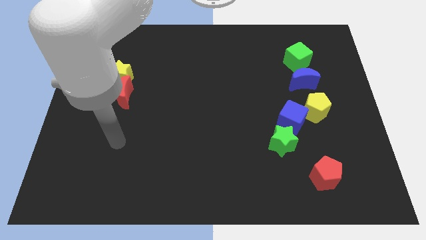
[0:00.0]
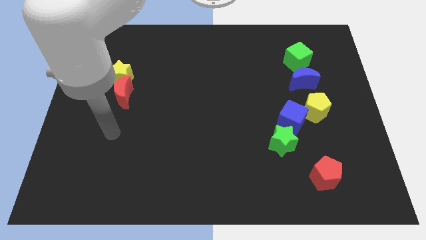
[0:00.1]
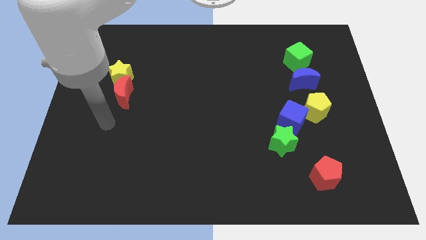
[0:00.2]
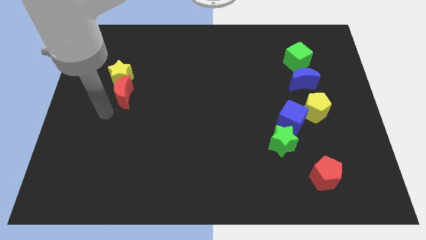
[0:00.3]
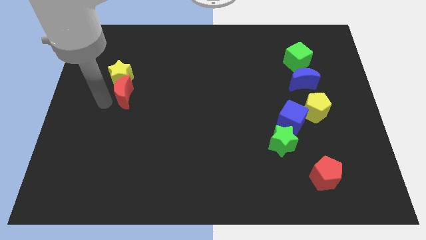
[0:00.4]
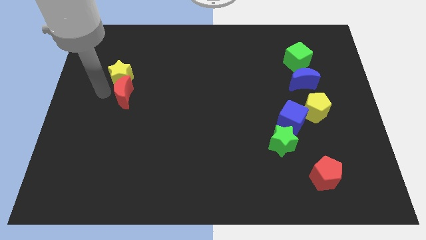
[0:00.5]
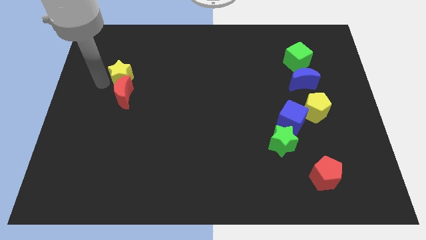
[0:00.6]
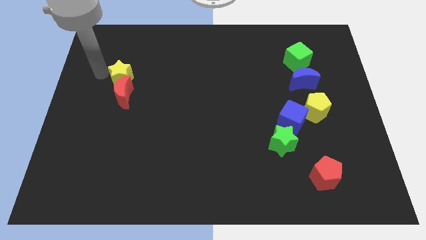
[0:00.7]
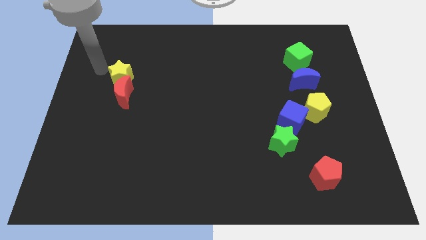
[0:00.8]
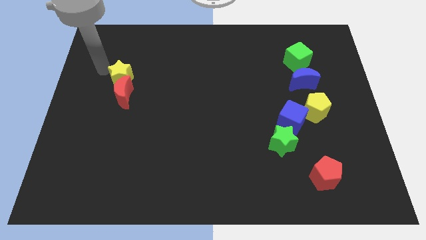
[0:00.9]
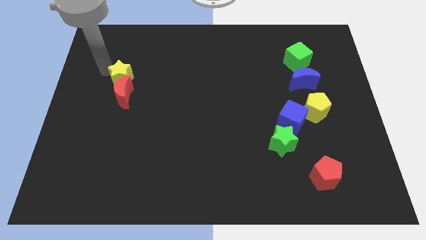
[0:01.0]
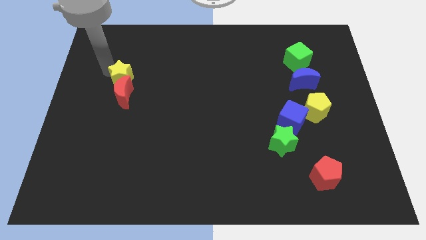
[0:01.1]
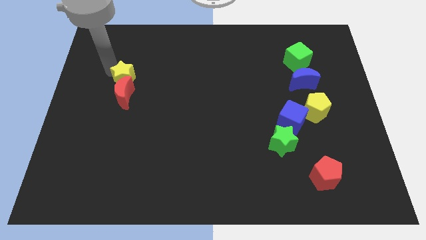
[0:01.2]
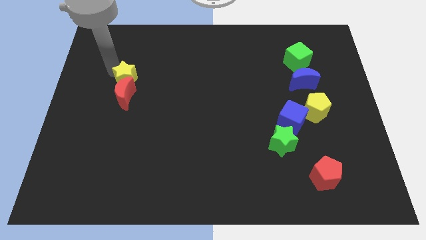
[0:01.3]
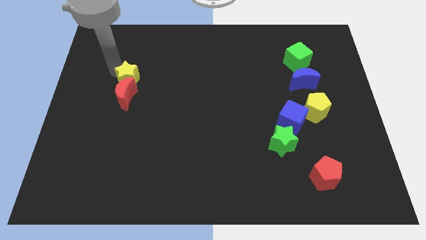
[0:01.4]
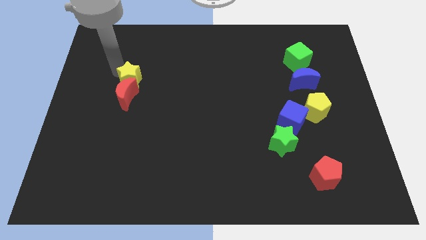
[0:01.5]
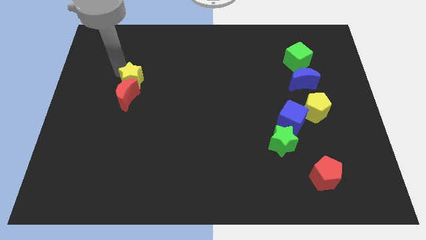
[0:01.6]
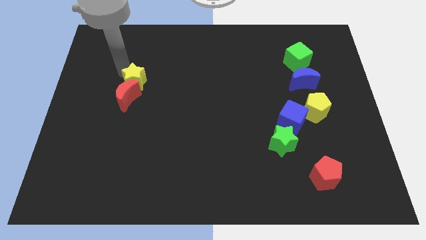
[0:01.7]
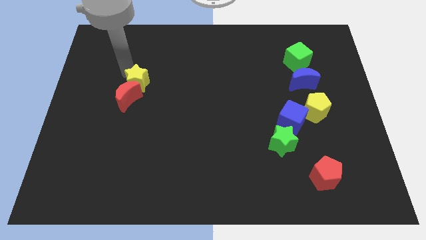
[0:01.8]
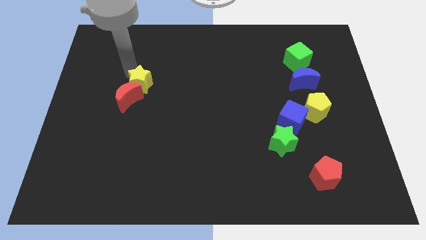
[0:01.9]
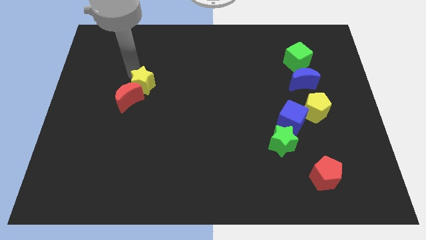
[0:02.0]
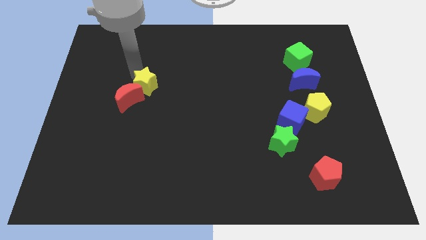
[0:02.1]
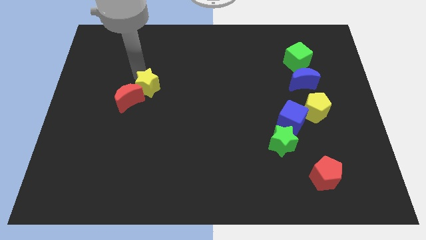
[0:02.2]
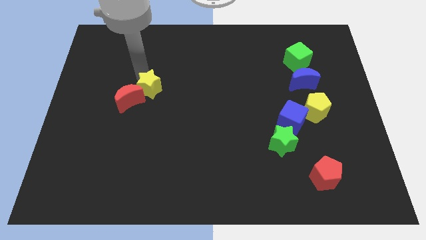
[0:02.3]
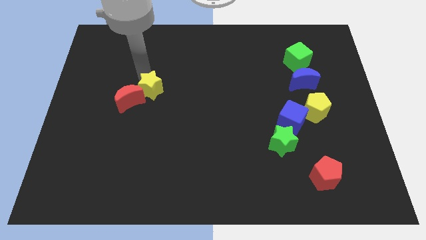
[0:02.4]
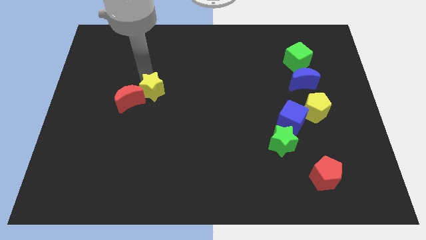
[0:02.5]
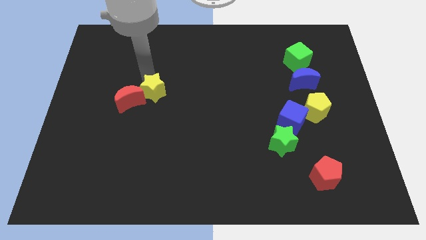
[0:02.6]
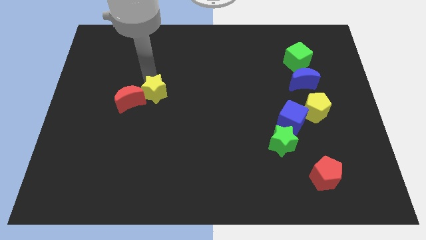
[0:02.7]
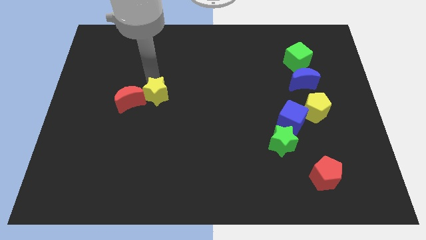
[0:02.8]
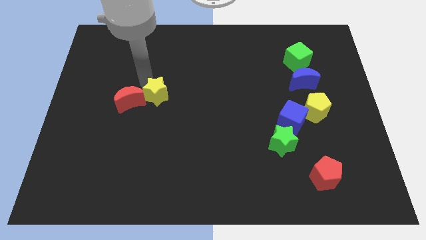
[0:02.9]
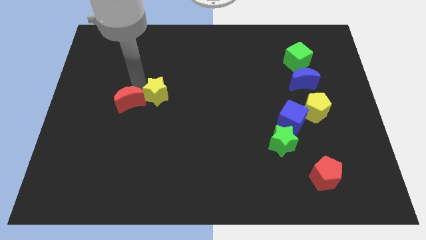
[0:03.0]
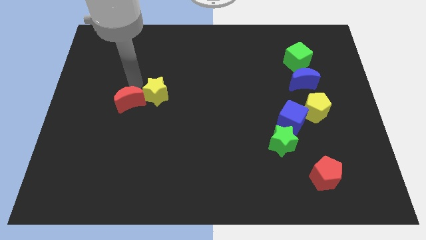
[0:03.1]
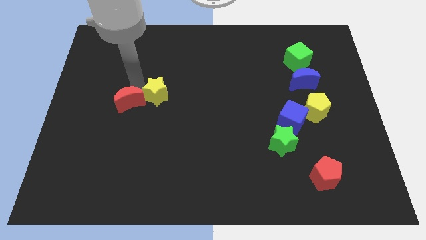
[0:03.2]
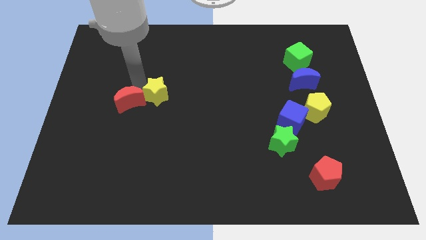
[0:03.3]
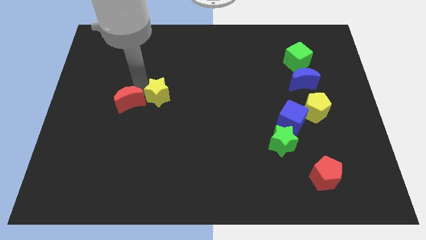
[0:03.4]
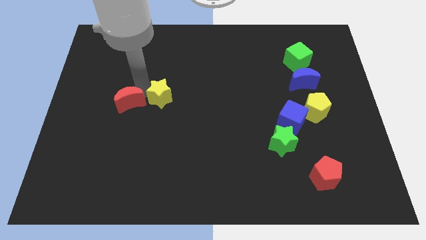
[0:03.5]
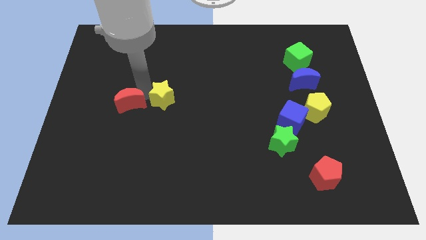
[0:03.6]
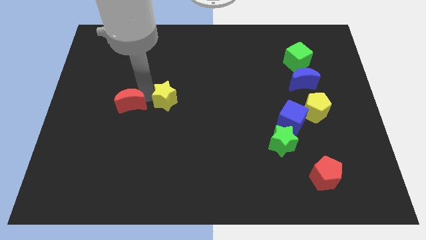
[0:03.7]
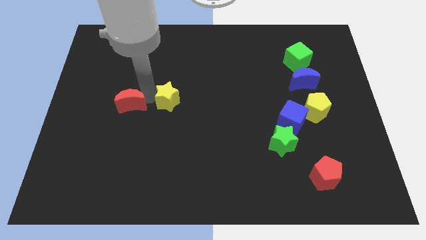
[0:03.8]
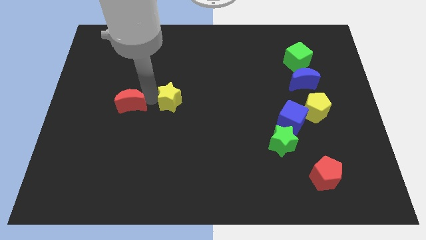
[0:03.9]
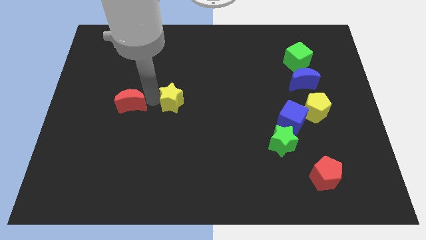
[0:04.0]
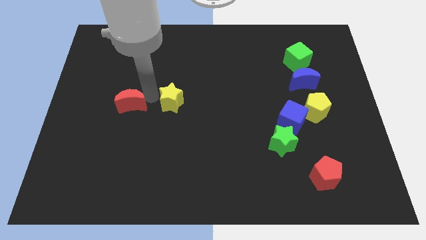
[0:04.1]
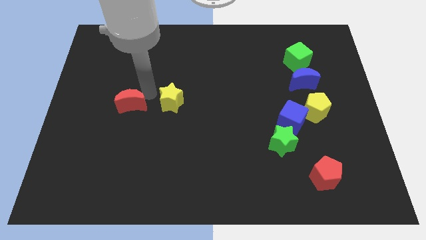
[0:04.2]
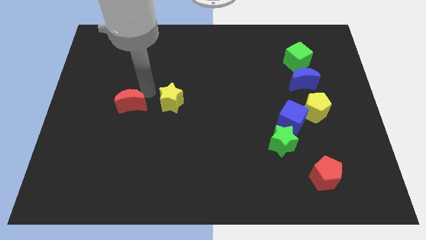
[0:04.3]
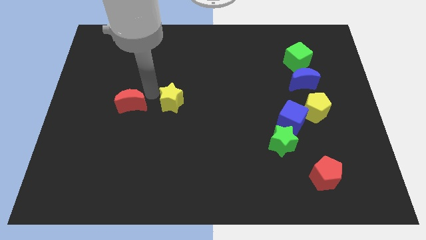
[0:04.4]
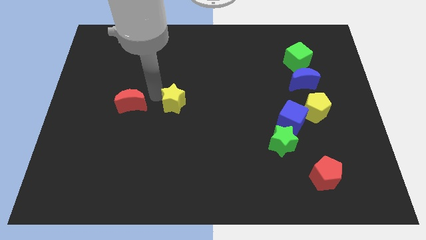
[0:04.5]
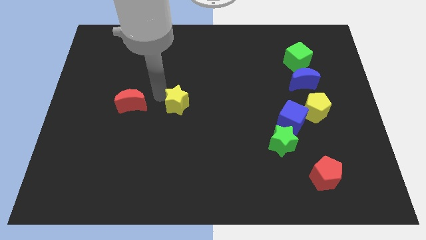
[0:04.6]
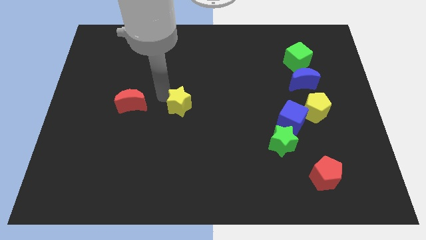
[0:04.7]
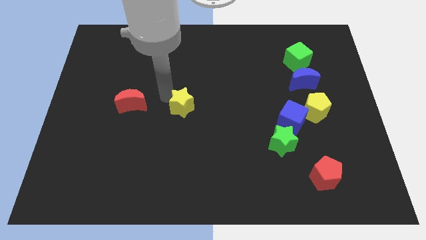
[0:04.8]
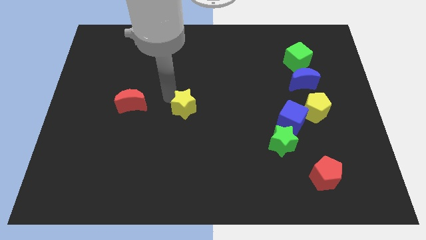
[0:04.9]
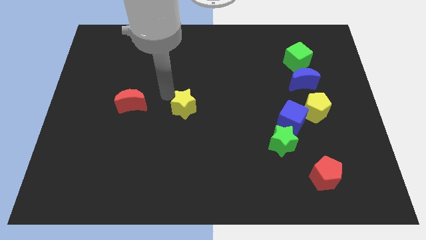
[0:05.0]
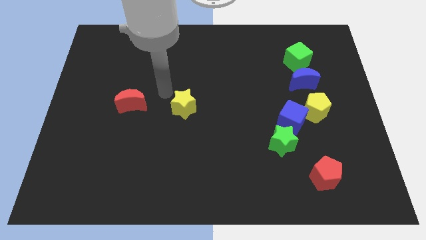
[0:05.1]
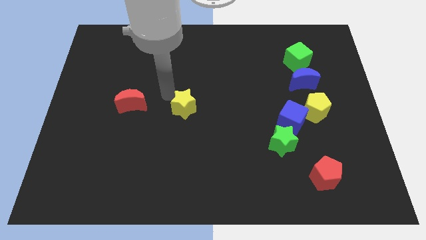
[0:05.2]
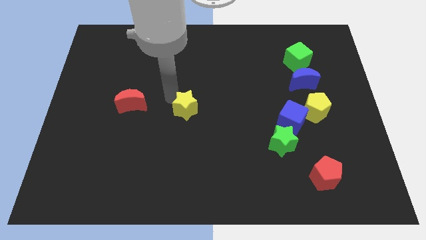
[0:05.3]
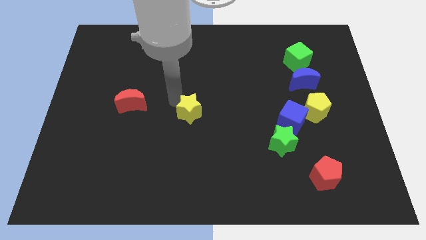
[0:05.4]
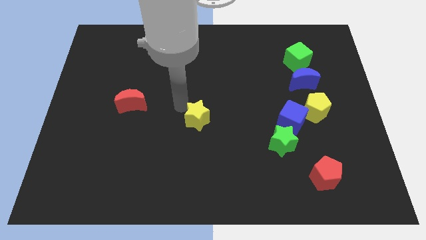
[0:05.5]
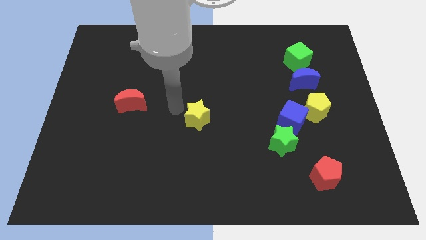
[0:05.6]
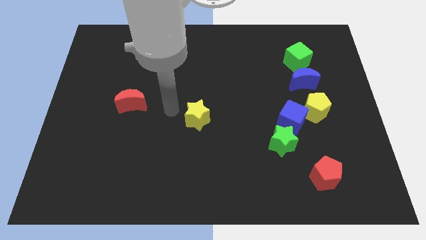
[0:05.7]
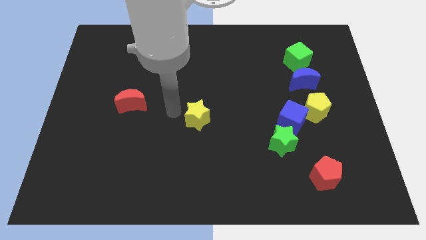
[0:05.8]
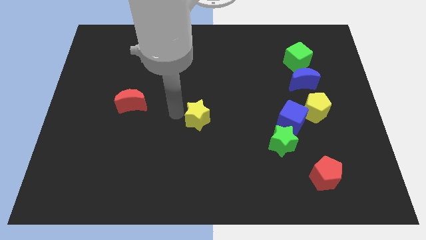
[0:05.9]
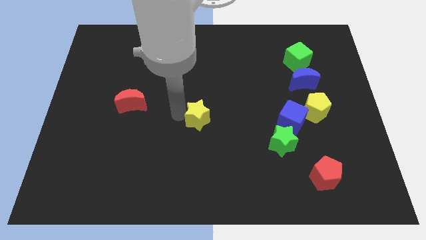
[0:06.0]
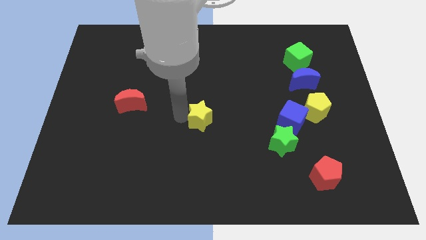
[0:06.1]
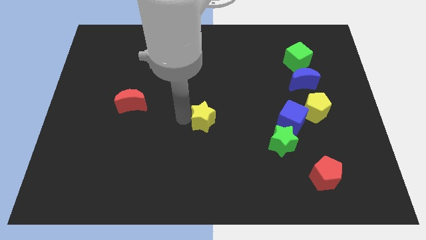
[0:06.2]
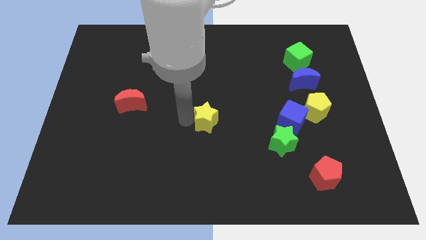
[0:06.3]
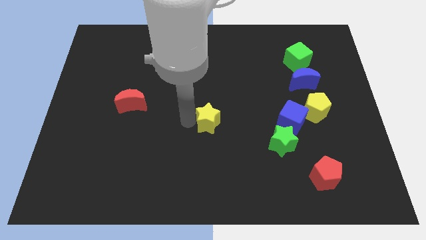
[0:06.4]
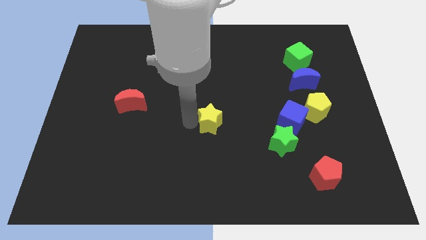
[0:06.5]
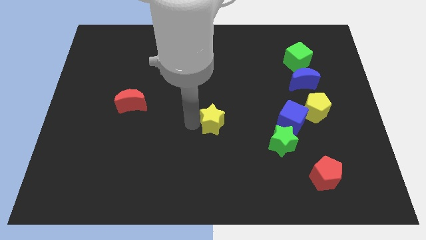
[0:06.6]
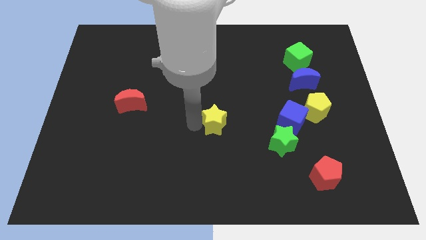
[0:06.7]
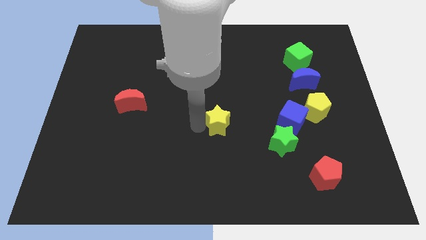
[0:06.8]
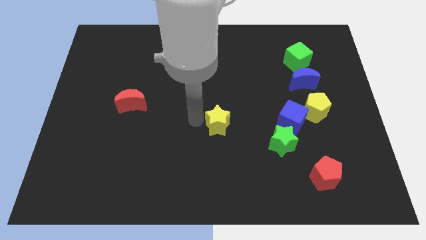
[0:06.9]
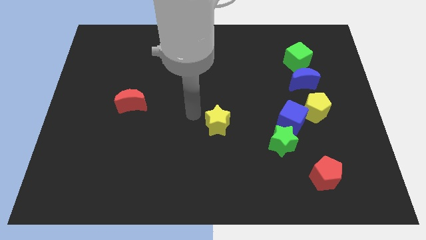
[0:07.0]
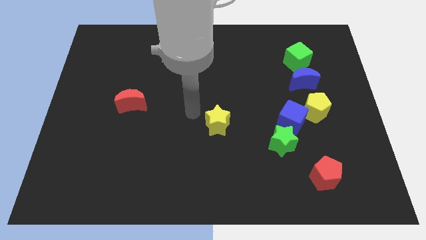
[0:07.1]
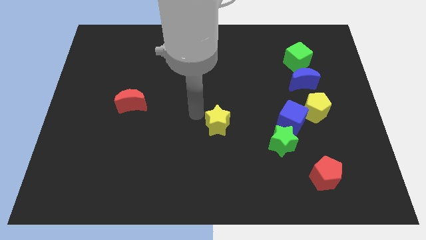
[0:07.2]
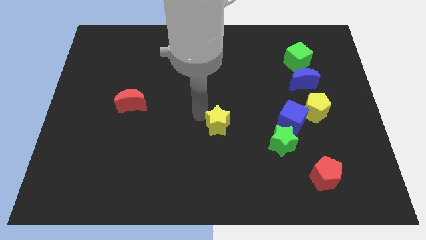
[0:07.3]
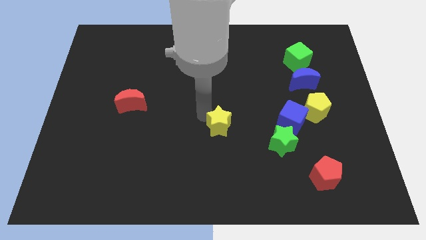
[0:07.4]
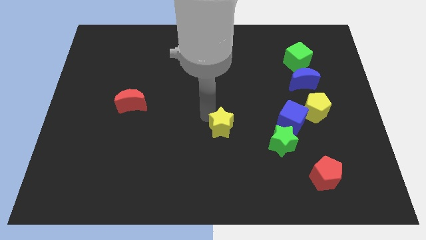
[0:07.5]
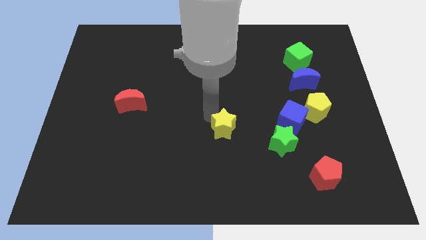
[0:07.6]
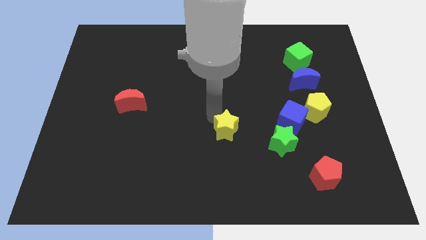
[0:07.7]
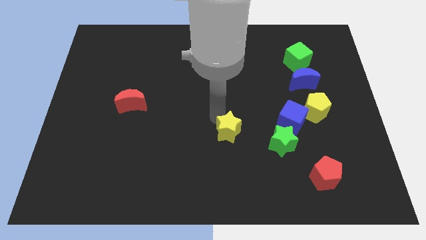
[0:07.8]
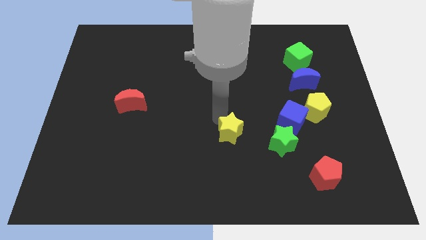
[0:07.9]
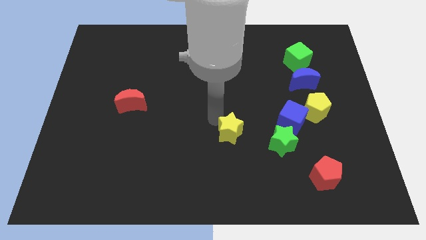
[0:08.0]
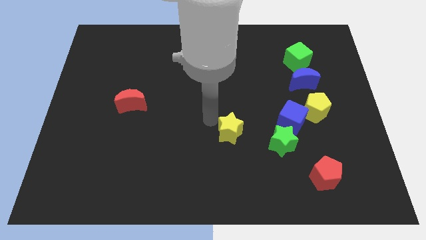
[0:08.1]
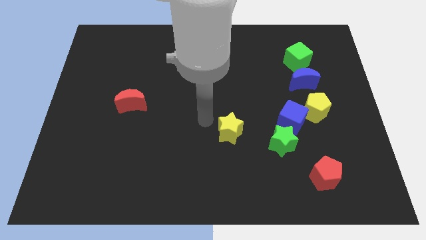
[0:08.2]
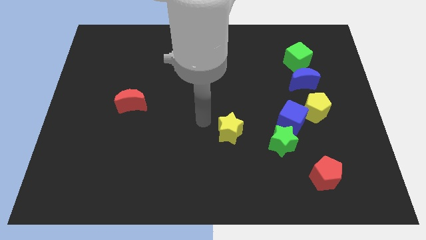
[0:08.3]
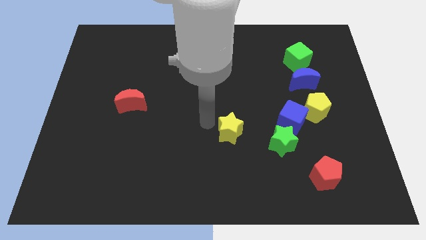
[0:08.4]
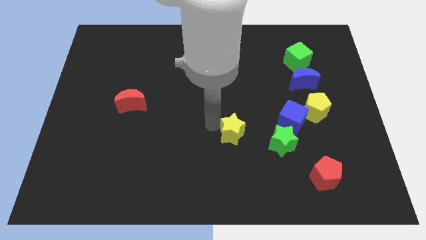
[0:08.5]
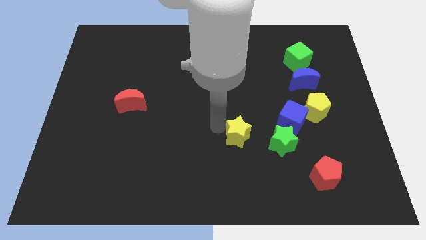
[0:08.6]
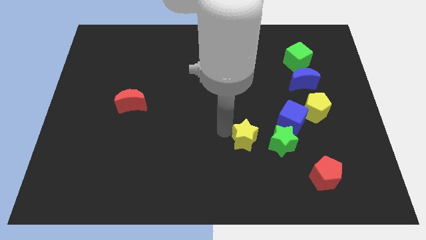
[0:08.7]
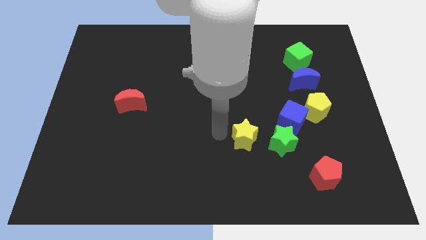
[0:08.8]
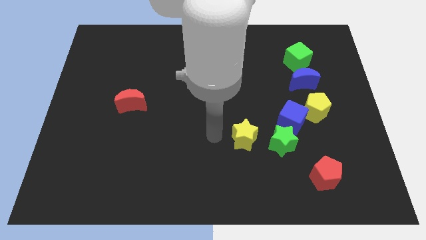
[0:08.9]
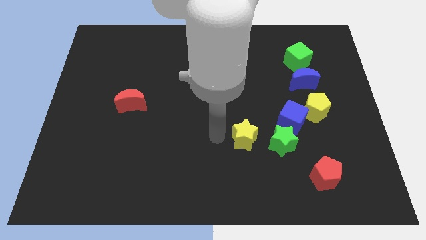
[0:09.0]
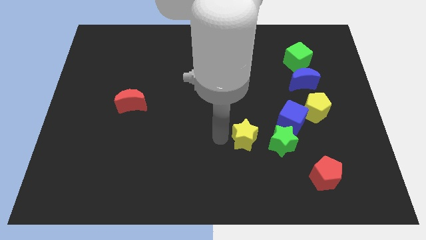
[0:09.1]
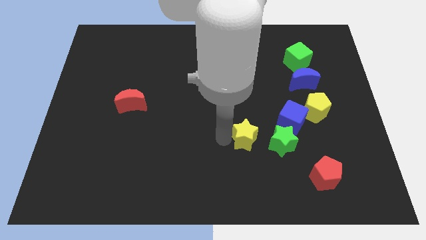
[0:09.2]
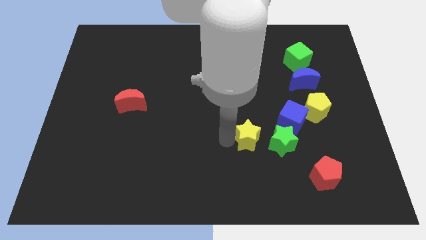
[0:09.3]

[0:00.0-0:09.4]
slide the yellow star to the bottom left side of the blue cube
